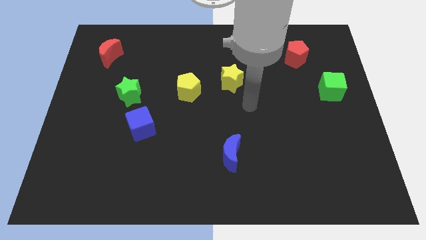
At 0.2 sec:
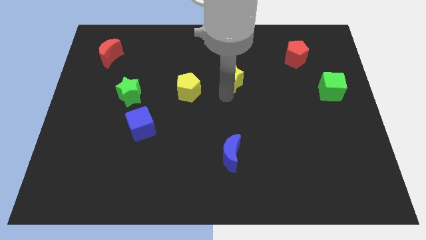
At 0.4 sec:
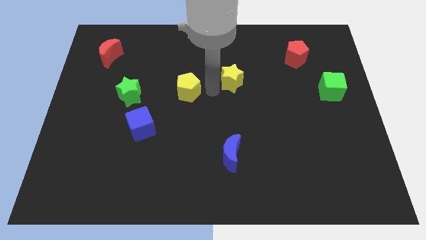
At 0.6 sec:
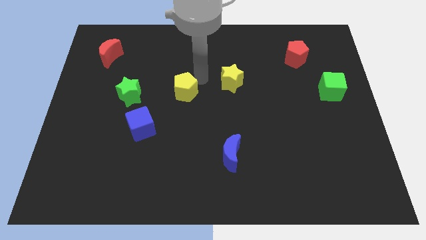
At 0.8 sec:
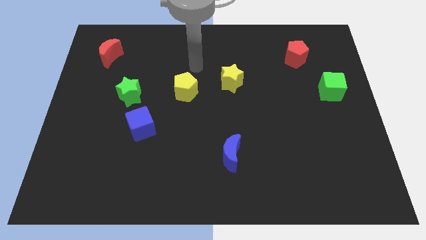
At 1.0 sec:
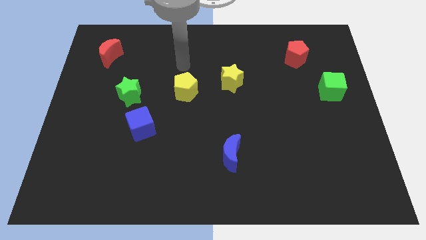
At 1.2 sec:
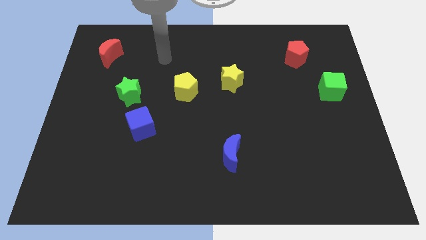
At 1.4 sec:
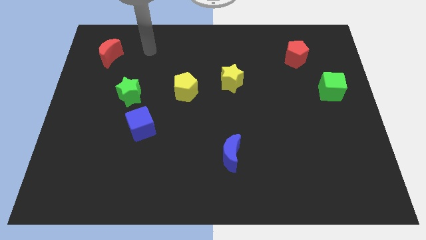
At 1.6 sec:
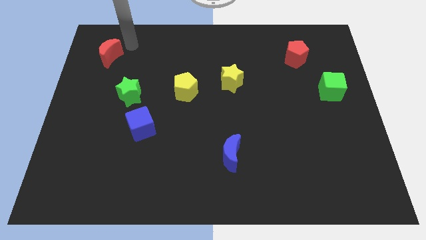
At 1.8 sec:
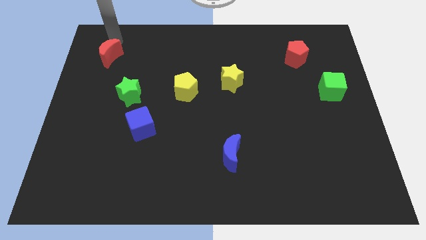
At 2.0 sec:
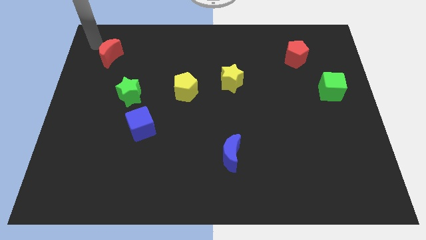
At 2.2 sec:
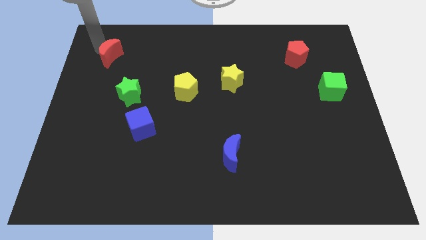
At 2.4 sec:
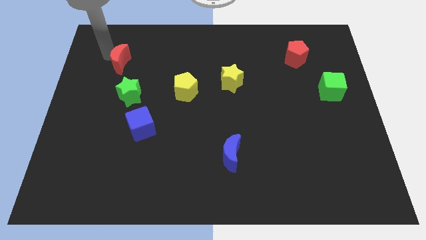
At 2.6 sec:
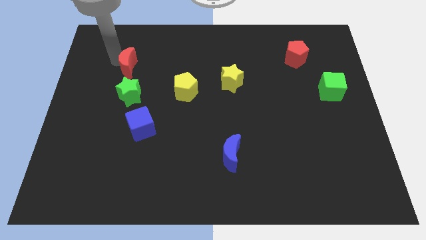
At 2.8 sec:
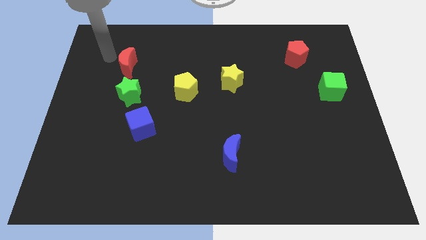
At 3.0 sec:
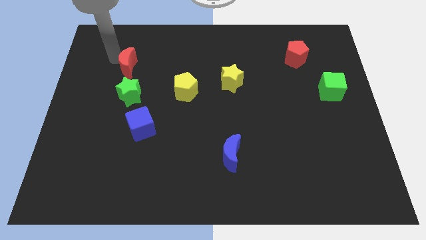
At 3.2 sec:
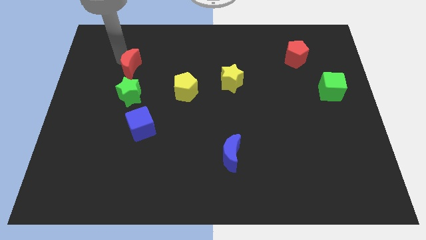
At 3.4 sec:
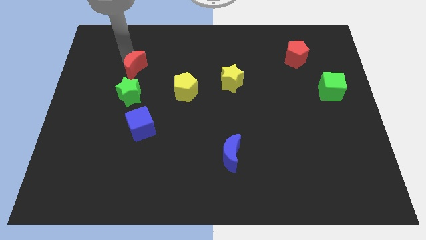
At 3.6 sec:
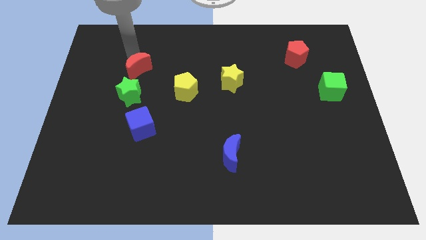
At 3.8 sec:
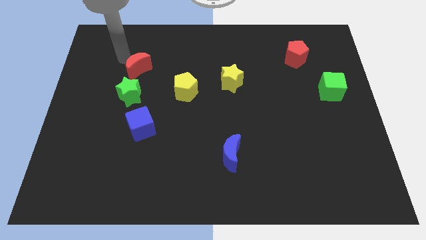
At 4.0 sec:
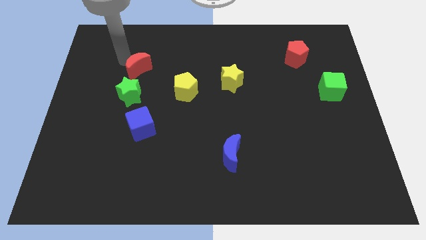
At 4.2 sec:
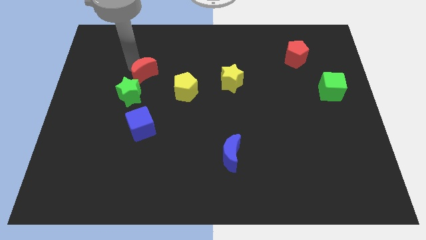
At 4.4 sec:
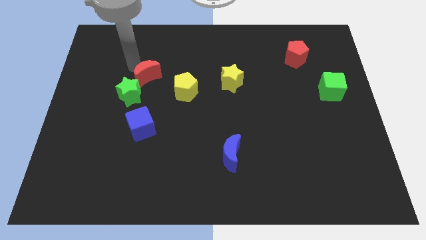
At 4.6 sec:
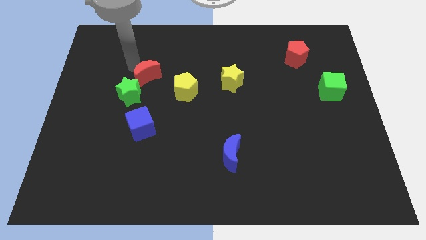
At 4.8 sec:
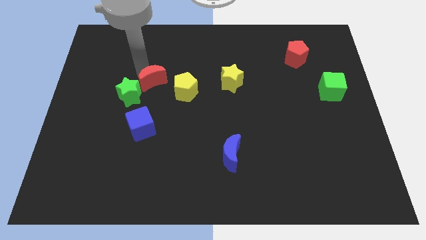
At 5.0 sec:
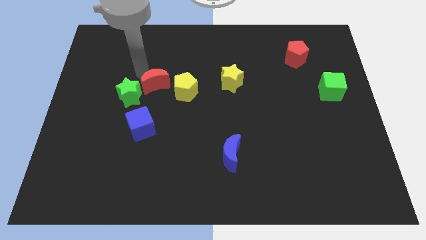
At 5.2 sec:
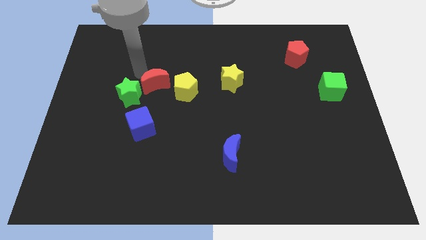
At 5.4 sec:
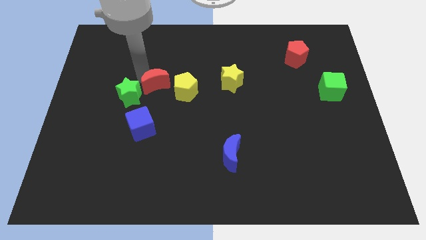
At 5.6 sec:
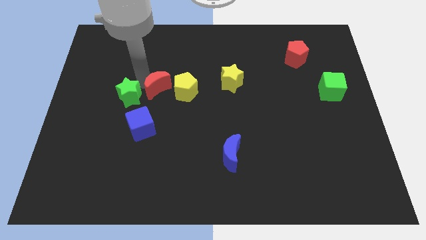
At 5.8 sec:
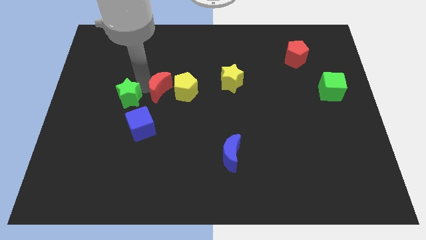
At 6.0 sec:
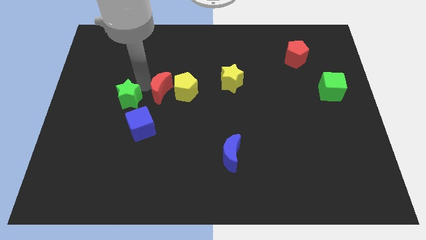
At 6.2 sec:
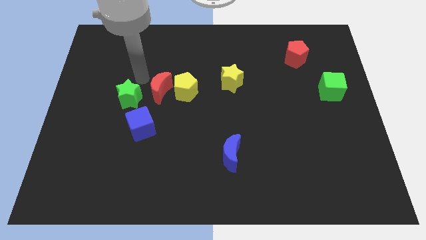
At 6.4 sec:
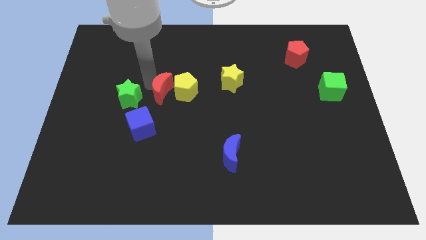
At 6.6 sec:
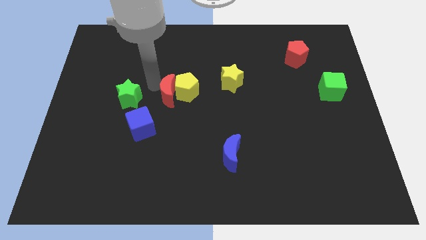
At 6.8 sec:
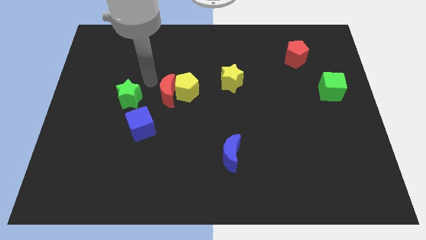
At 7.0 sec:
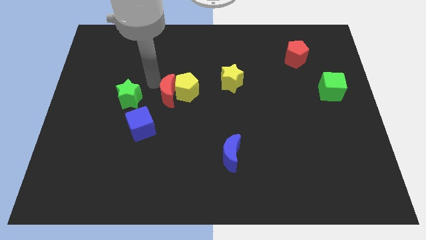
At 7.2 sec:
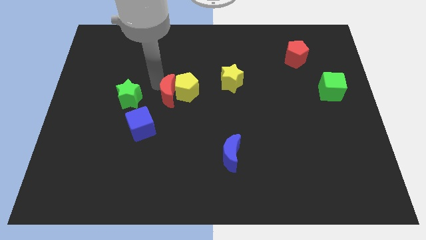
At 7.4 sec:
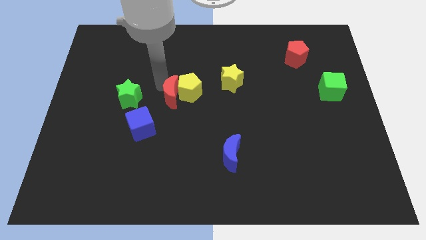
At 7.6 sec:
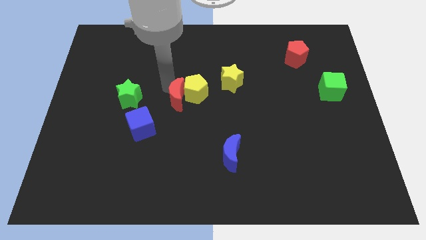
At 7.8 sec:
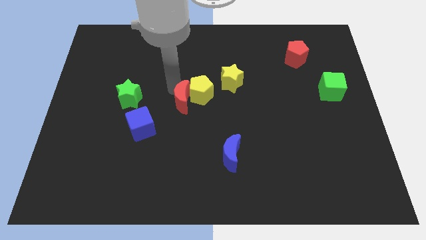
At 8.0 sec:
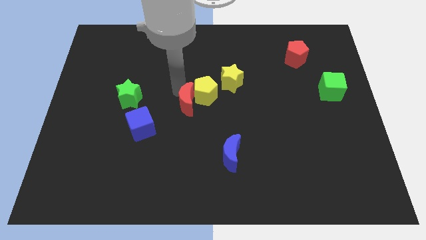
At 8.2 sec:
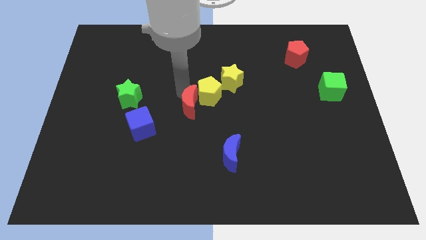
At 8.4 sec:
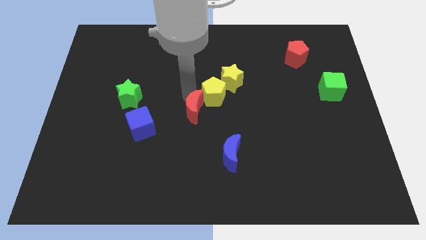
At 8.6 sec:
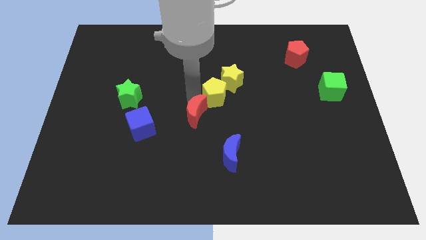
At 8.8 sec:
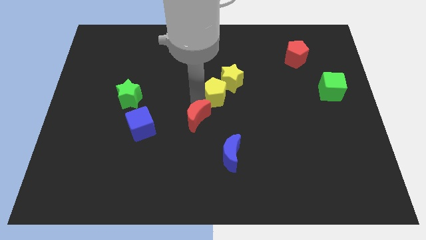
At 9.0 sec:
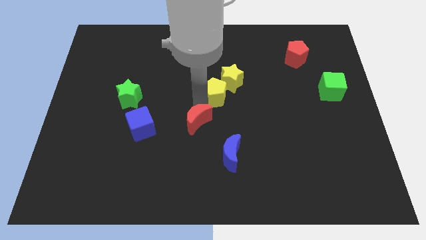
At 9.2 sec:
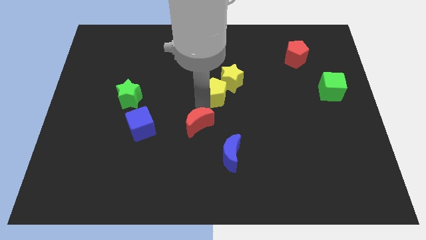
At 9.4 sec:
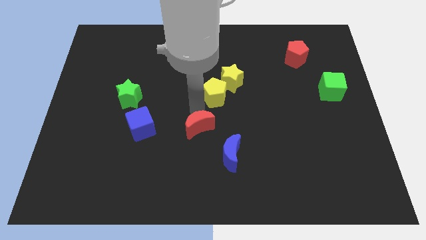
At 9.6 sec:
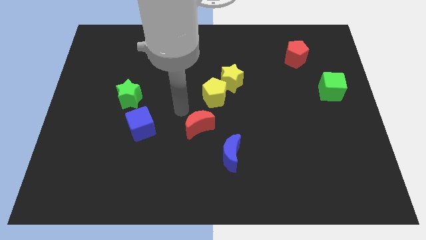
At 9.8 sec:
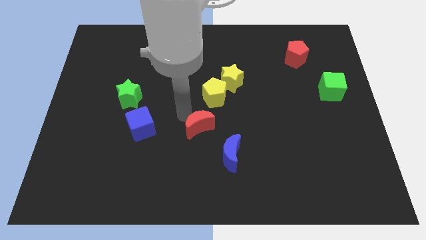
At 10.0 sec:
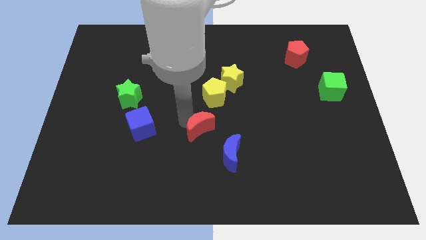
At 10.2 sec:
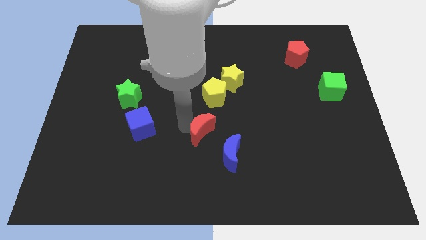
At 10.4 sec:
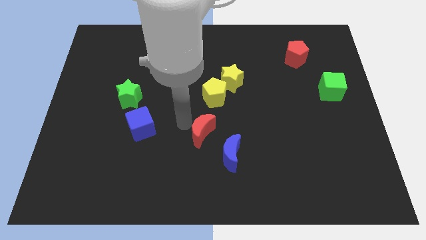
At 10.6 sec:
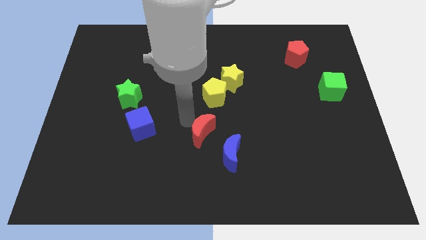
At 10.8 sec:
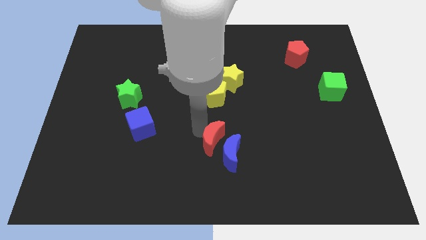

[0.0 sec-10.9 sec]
slide the red moon towards the blue moon

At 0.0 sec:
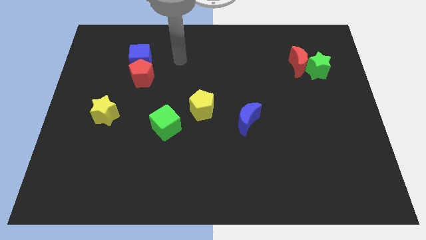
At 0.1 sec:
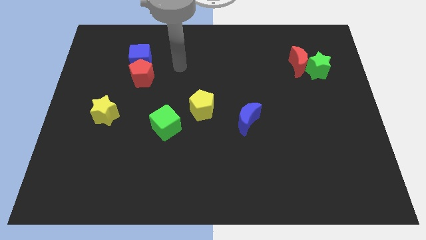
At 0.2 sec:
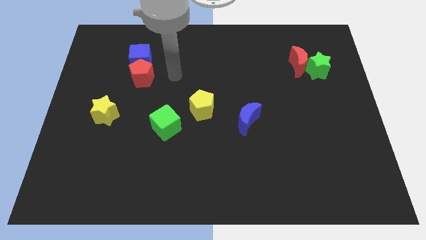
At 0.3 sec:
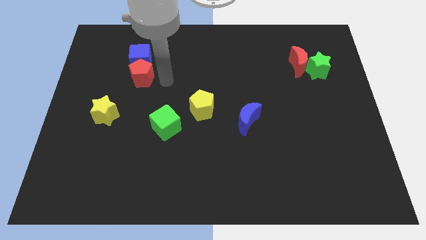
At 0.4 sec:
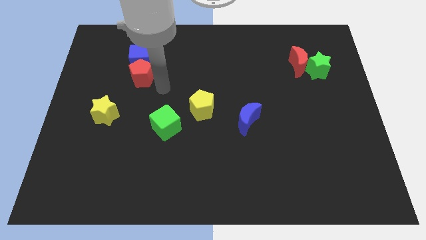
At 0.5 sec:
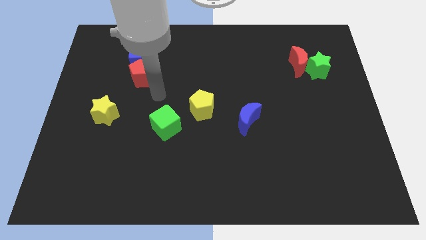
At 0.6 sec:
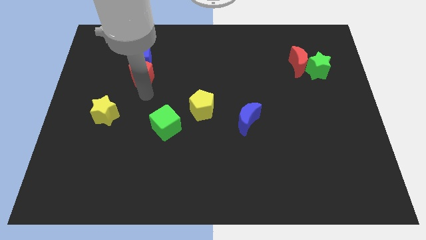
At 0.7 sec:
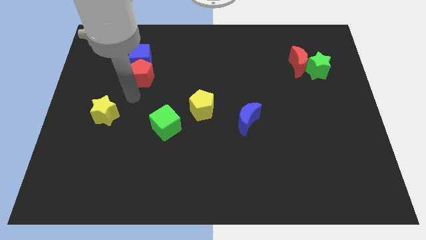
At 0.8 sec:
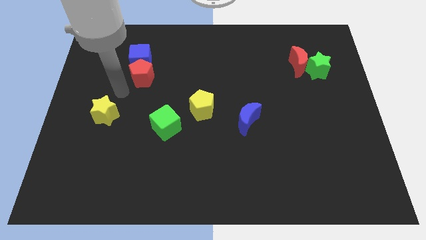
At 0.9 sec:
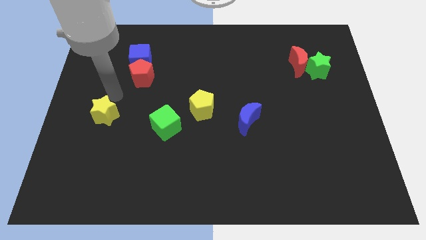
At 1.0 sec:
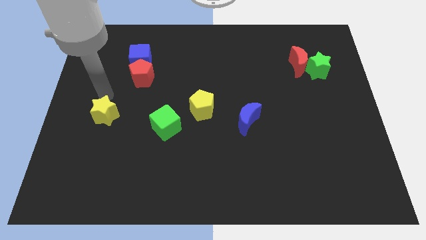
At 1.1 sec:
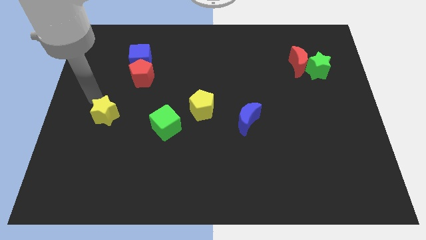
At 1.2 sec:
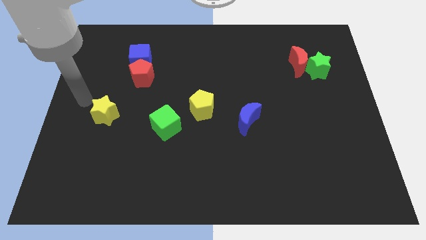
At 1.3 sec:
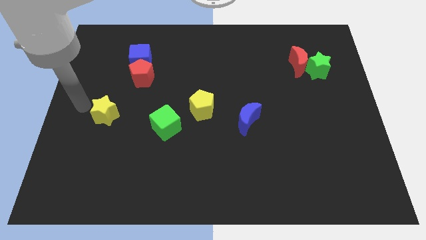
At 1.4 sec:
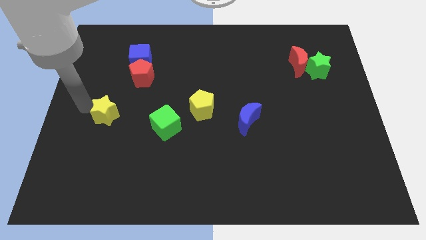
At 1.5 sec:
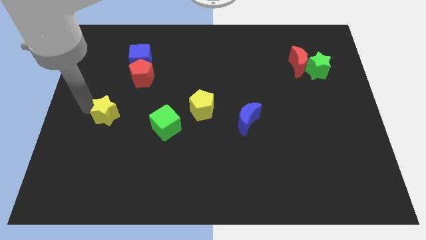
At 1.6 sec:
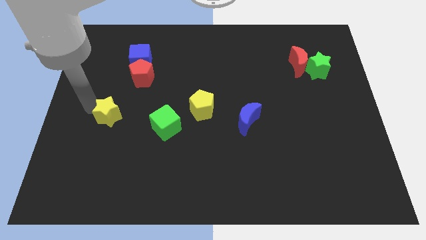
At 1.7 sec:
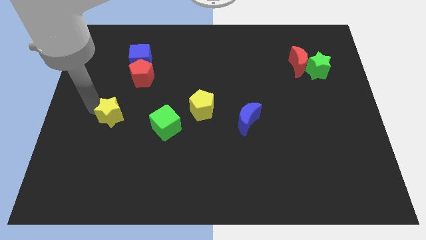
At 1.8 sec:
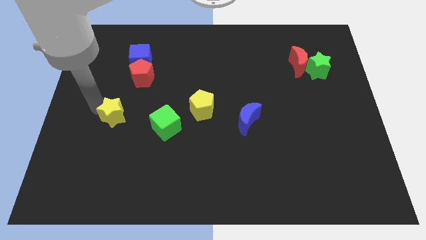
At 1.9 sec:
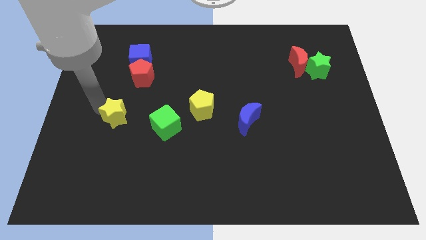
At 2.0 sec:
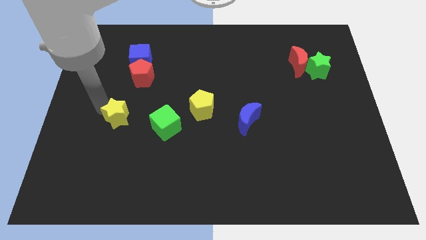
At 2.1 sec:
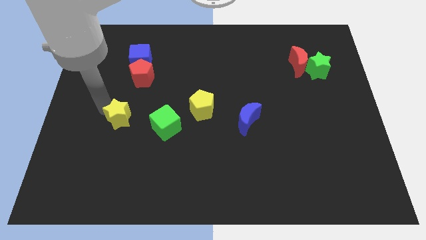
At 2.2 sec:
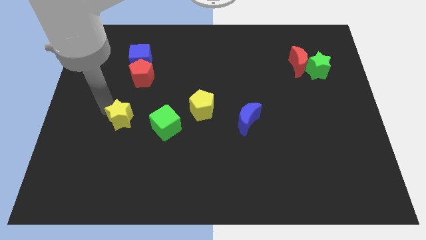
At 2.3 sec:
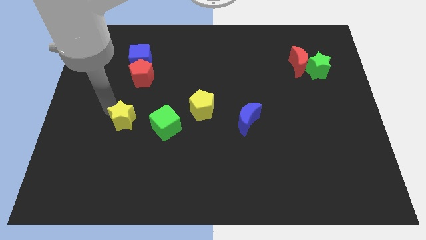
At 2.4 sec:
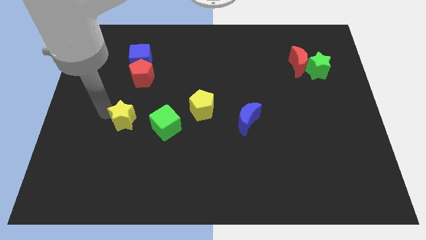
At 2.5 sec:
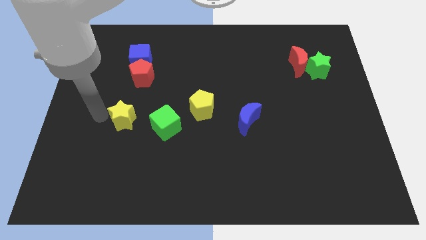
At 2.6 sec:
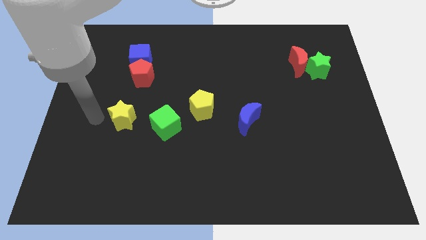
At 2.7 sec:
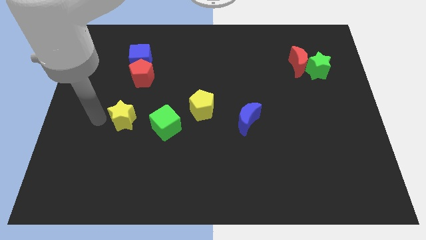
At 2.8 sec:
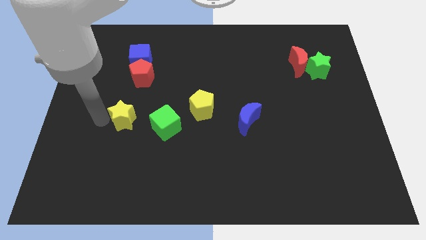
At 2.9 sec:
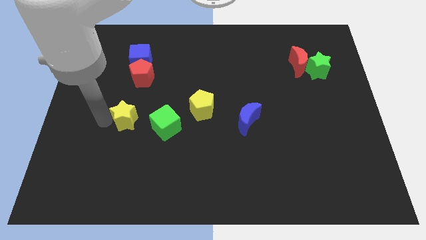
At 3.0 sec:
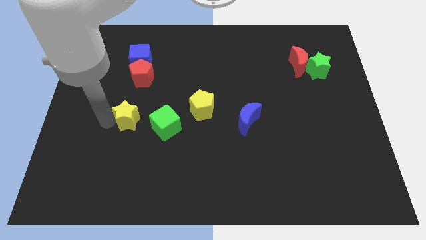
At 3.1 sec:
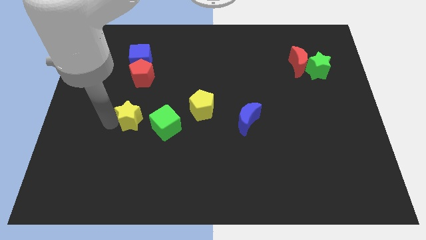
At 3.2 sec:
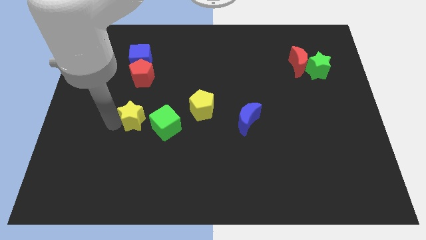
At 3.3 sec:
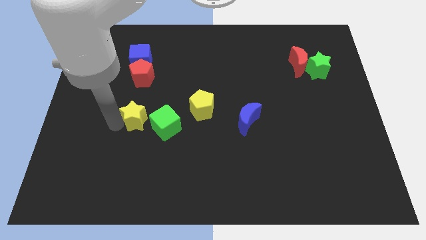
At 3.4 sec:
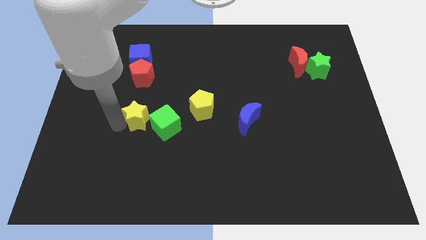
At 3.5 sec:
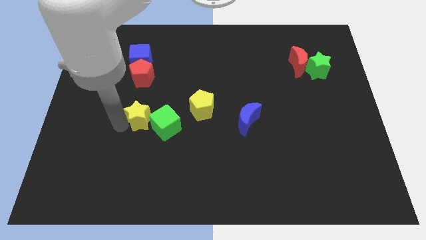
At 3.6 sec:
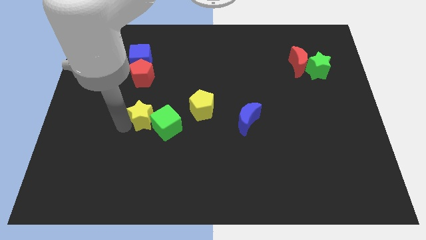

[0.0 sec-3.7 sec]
slide the yellow star towards the green cube
